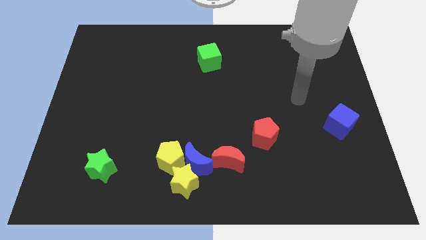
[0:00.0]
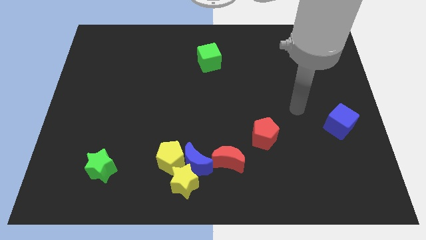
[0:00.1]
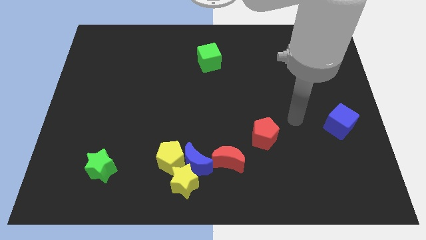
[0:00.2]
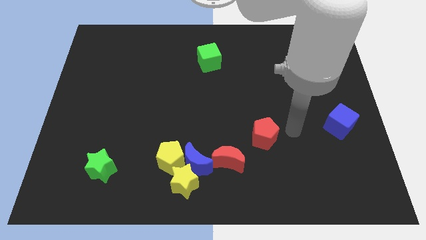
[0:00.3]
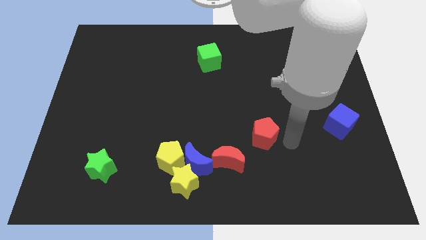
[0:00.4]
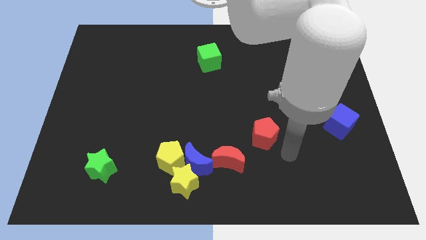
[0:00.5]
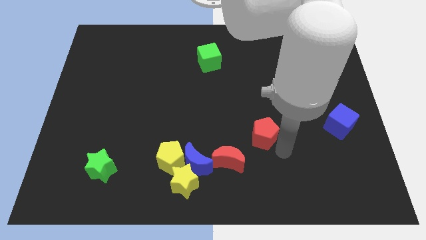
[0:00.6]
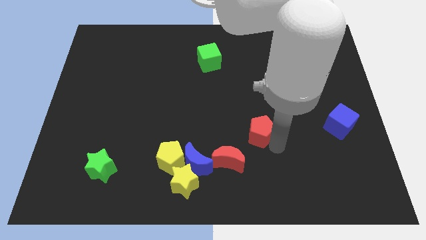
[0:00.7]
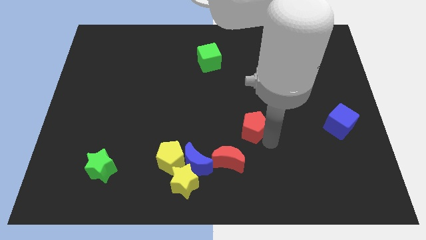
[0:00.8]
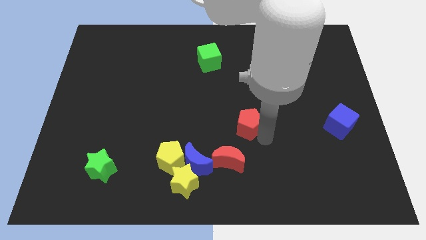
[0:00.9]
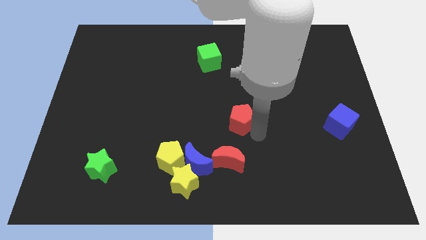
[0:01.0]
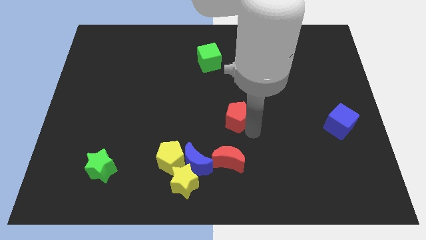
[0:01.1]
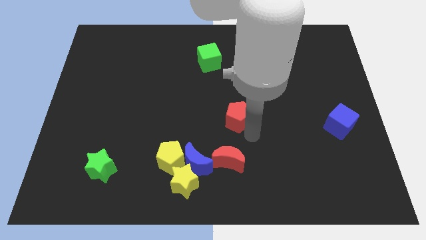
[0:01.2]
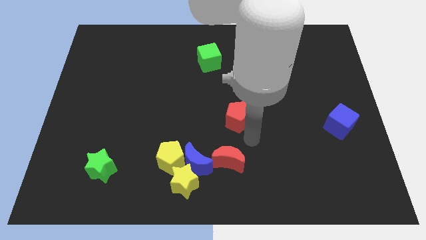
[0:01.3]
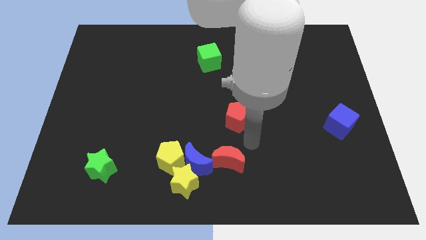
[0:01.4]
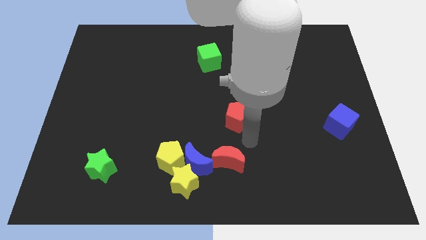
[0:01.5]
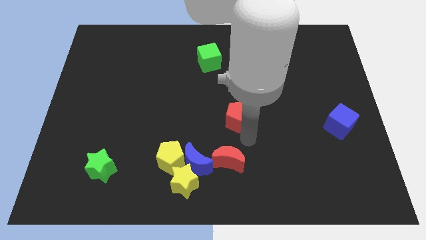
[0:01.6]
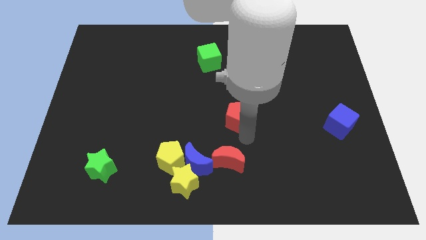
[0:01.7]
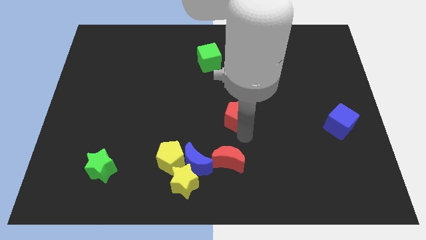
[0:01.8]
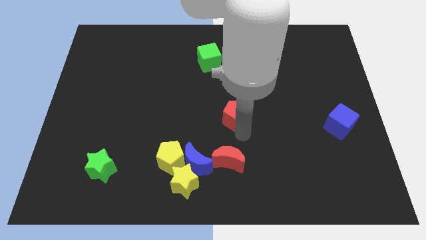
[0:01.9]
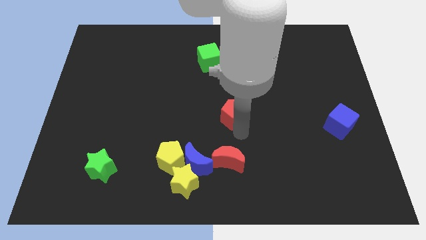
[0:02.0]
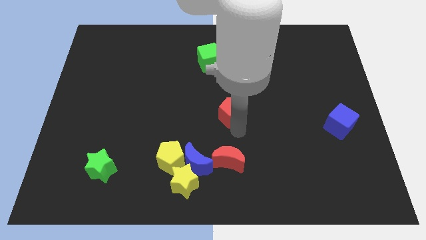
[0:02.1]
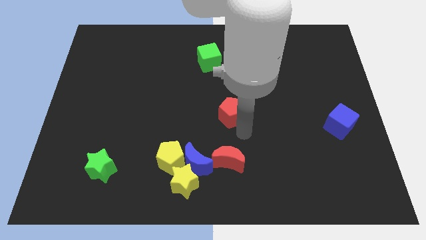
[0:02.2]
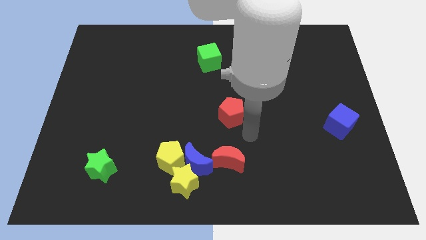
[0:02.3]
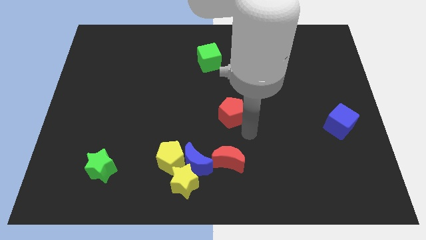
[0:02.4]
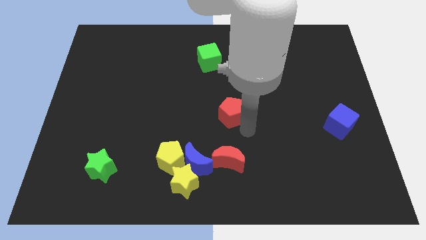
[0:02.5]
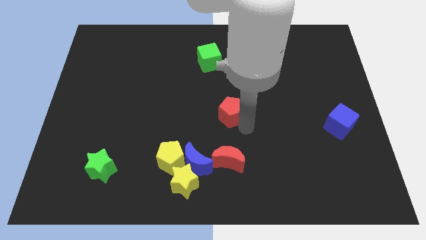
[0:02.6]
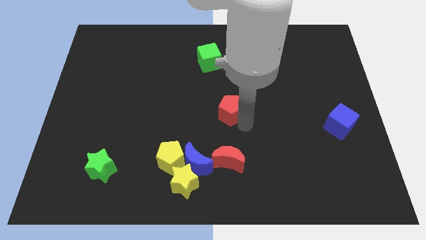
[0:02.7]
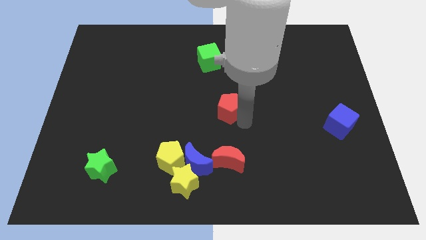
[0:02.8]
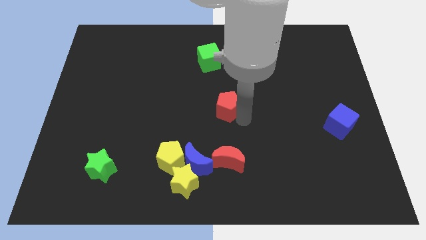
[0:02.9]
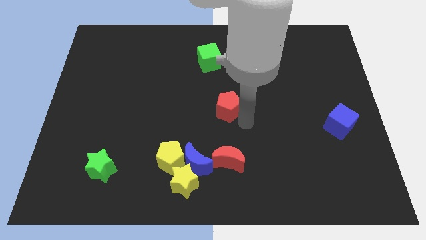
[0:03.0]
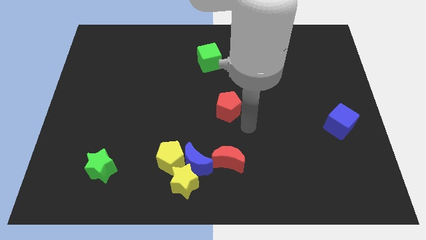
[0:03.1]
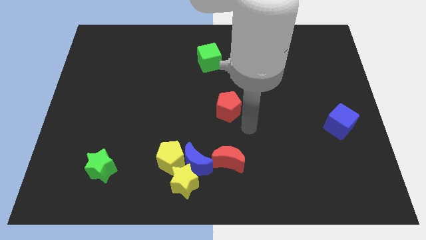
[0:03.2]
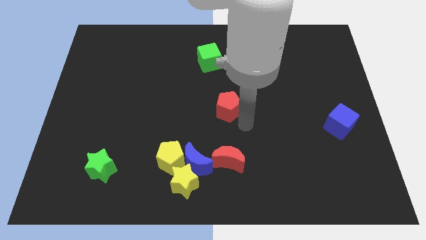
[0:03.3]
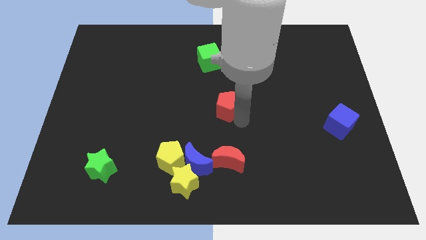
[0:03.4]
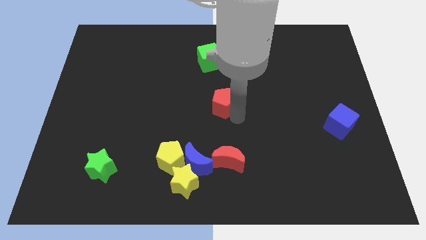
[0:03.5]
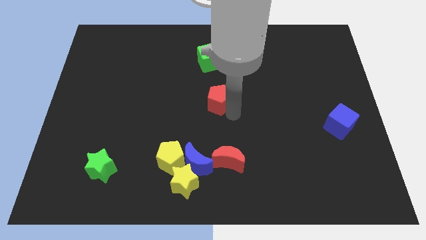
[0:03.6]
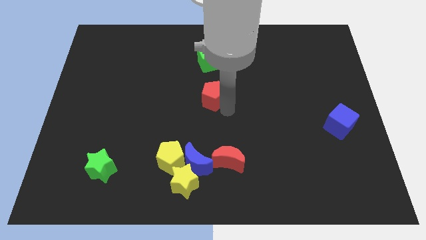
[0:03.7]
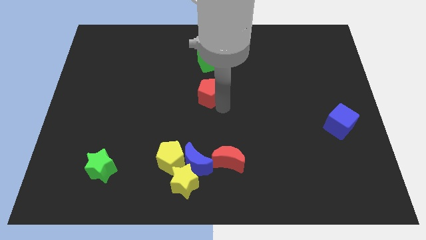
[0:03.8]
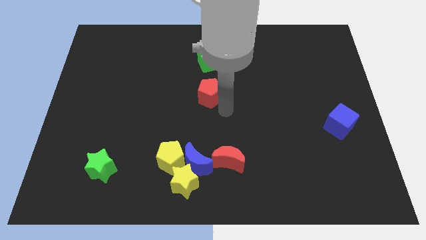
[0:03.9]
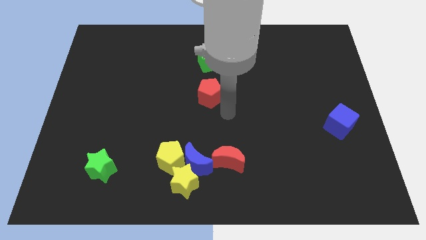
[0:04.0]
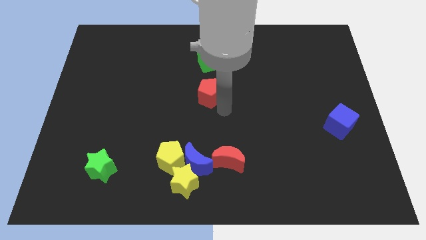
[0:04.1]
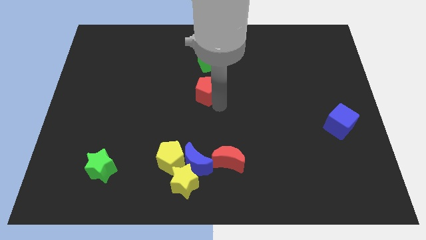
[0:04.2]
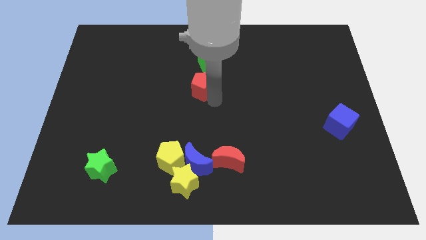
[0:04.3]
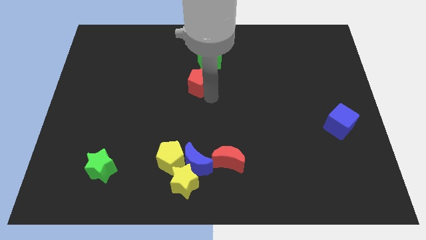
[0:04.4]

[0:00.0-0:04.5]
move the red pentagon up and then left

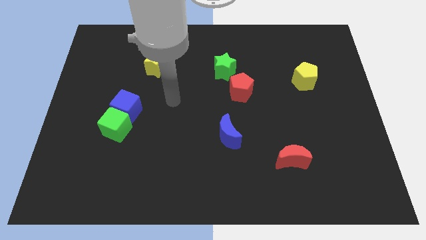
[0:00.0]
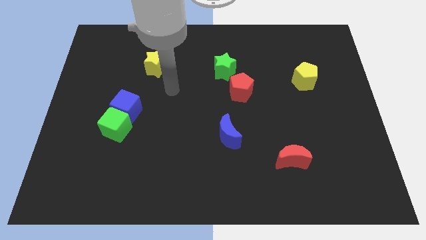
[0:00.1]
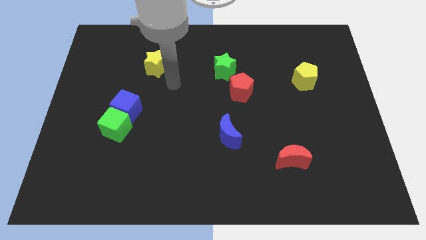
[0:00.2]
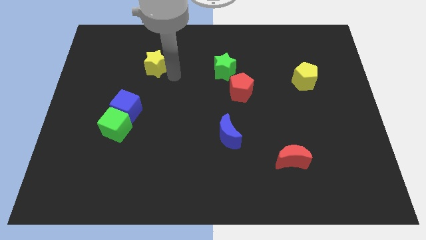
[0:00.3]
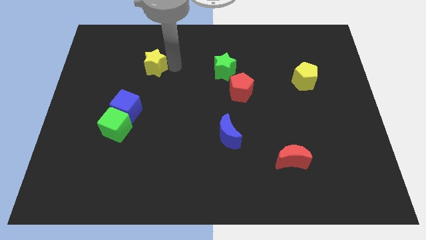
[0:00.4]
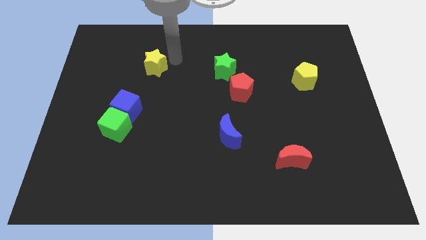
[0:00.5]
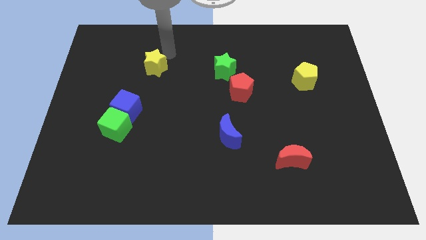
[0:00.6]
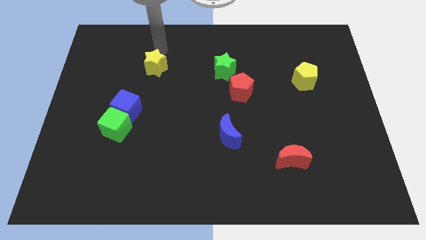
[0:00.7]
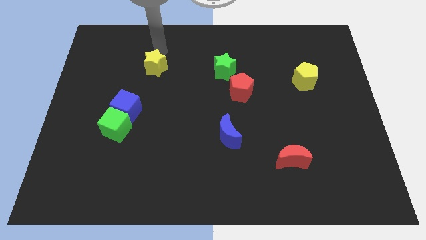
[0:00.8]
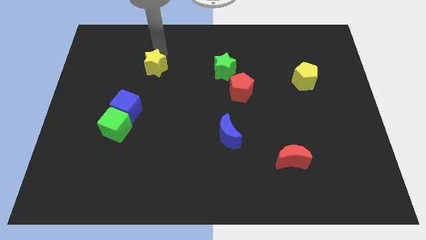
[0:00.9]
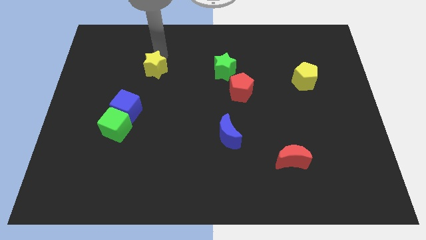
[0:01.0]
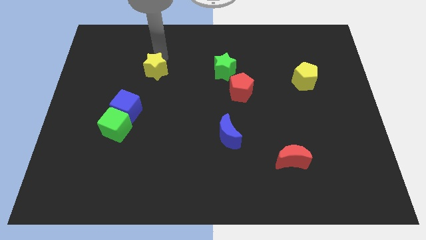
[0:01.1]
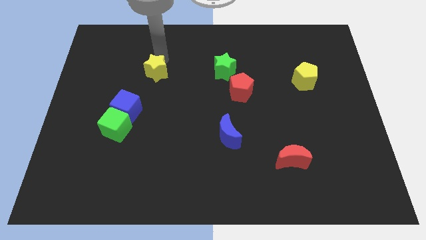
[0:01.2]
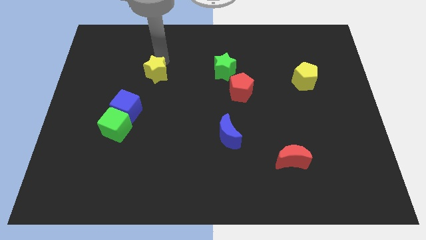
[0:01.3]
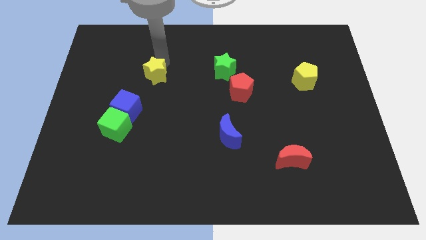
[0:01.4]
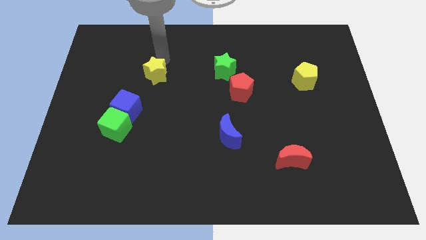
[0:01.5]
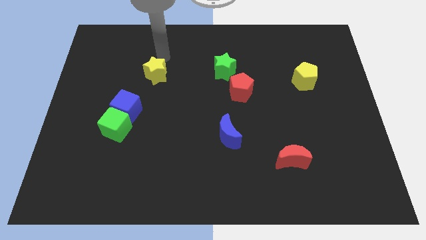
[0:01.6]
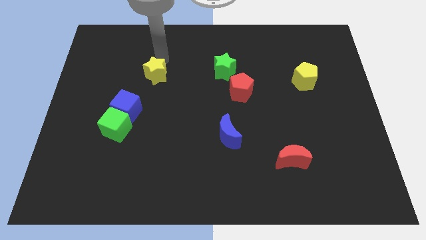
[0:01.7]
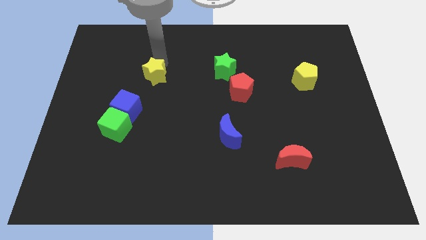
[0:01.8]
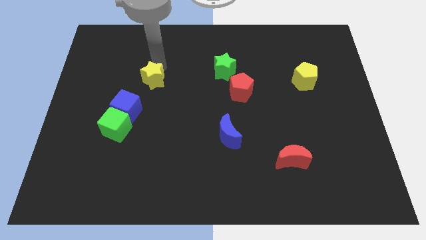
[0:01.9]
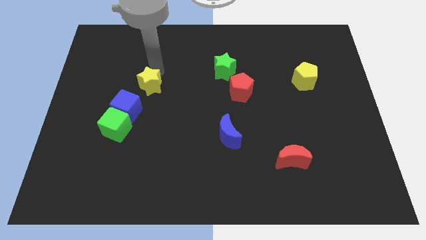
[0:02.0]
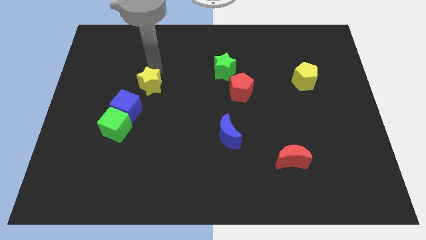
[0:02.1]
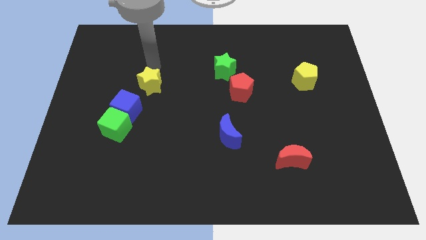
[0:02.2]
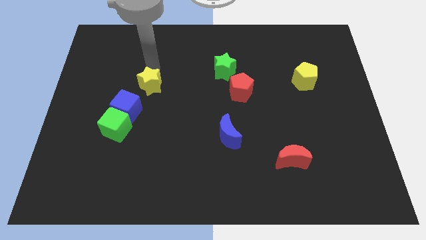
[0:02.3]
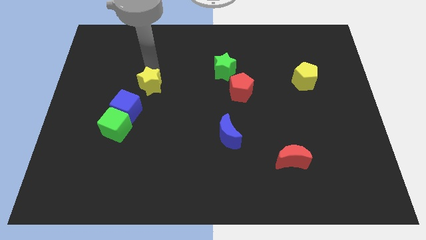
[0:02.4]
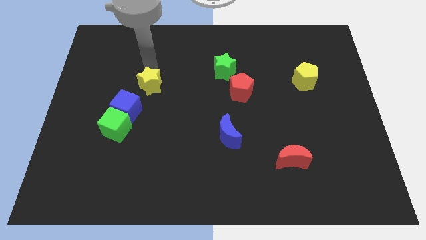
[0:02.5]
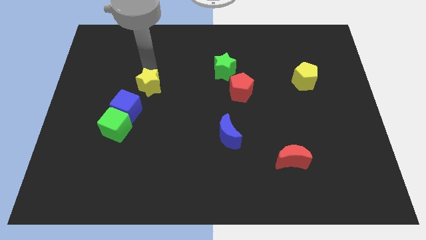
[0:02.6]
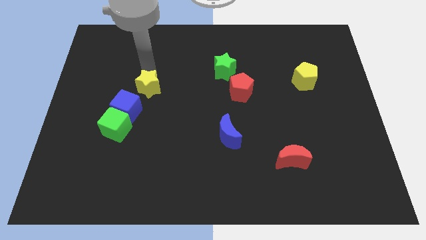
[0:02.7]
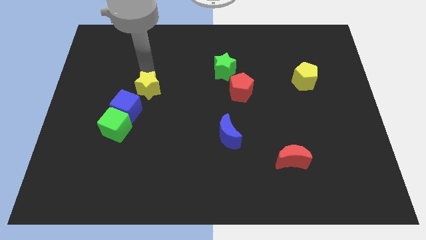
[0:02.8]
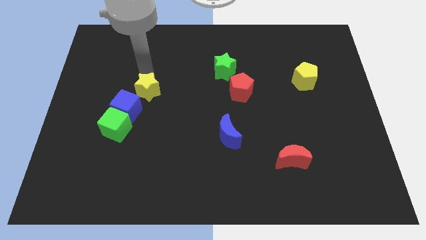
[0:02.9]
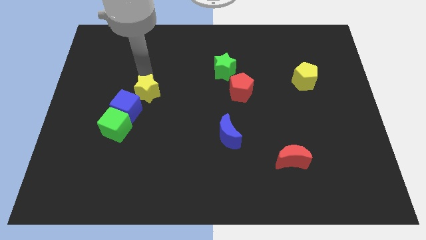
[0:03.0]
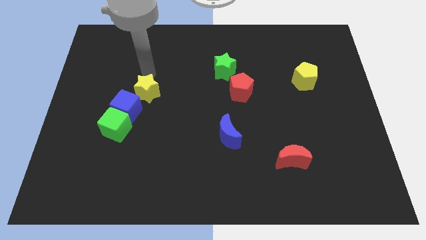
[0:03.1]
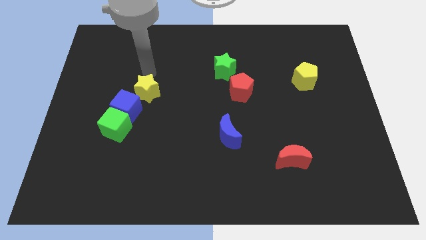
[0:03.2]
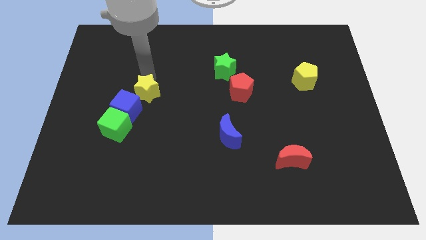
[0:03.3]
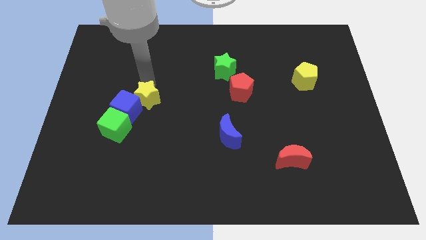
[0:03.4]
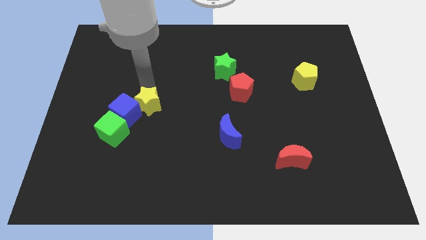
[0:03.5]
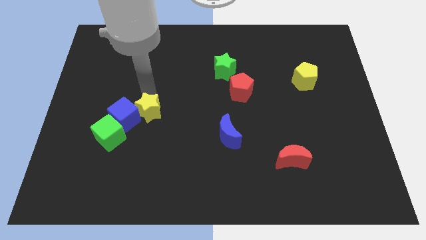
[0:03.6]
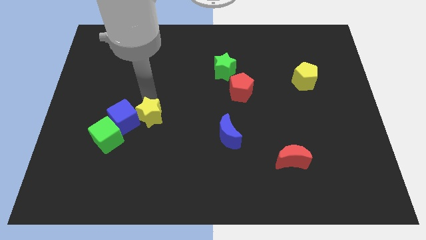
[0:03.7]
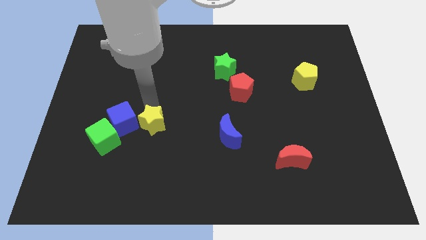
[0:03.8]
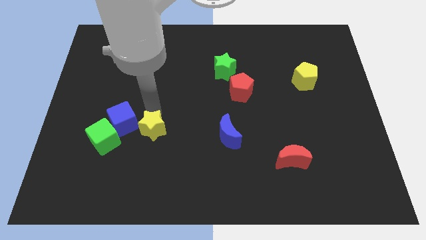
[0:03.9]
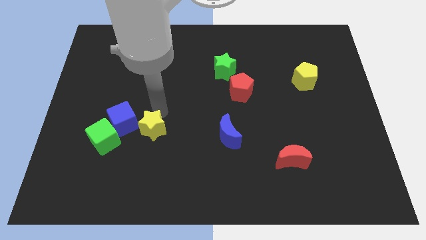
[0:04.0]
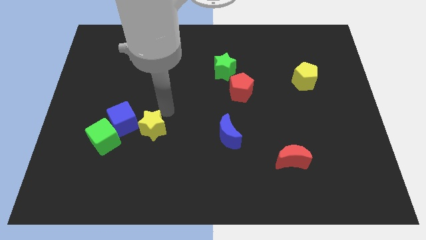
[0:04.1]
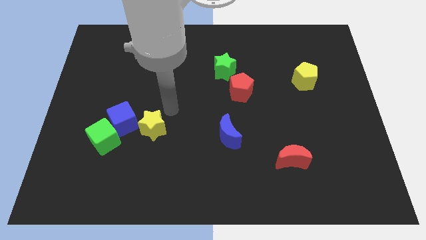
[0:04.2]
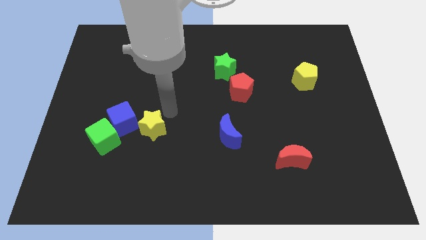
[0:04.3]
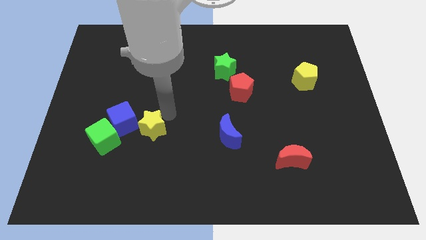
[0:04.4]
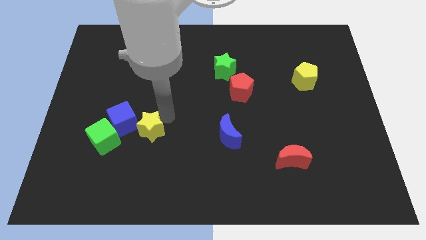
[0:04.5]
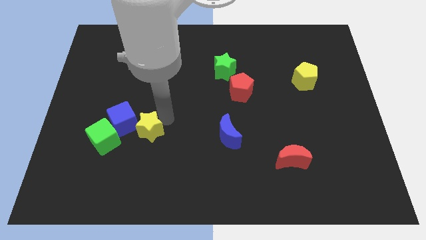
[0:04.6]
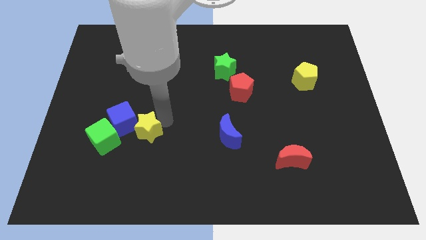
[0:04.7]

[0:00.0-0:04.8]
push the yellow star downwards
